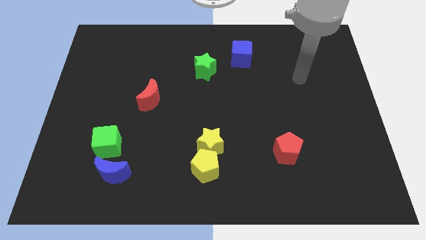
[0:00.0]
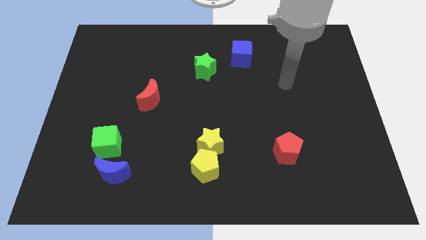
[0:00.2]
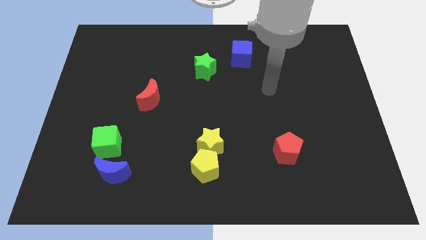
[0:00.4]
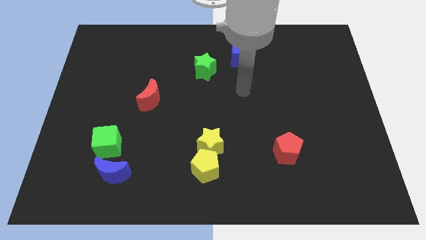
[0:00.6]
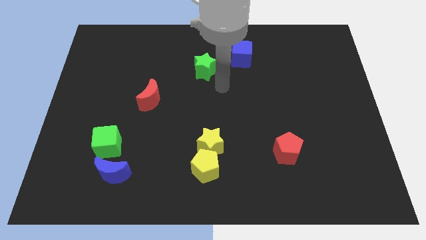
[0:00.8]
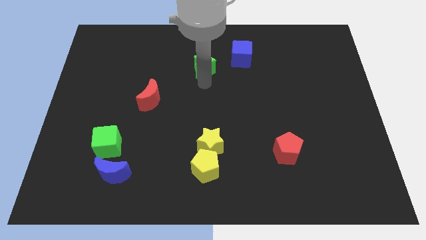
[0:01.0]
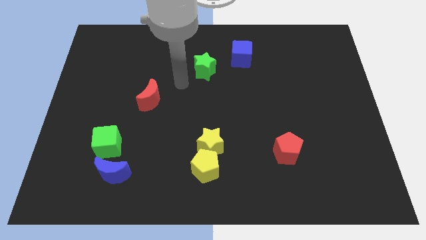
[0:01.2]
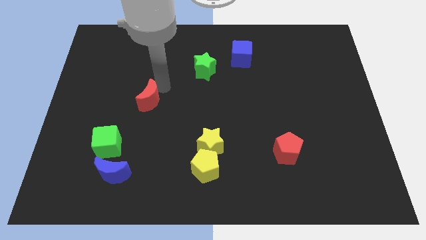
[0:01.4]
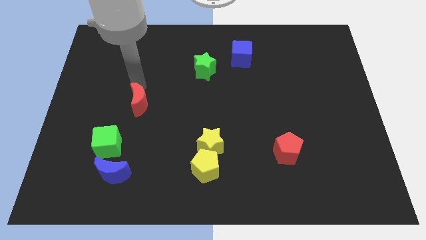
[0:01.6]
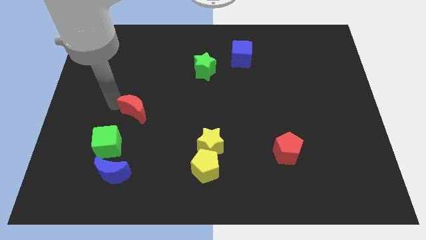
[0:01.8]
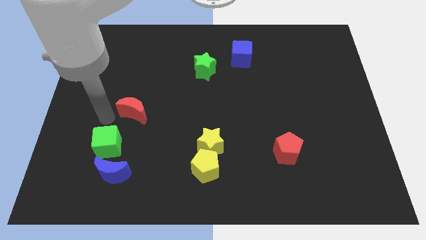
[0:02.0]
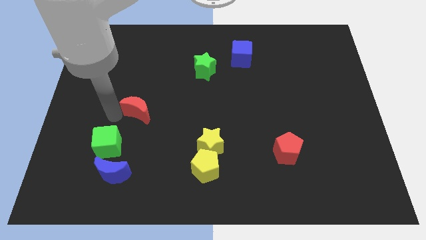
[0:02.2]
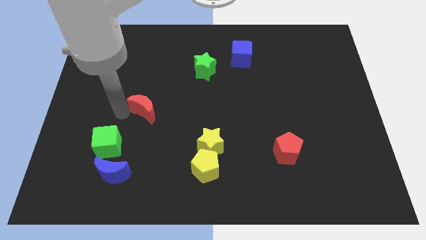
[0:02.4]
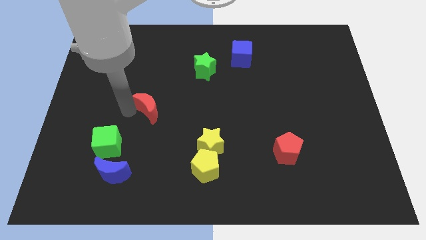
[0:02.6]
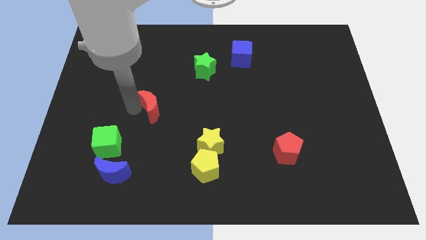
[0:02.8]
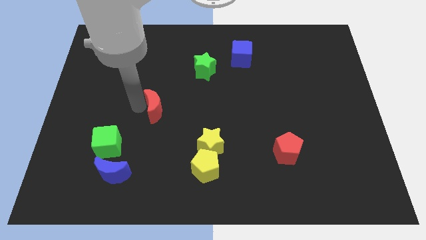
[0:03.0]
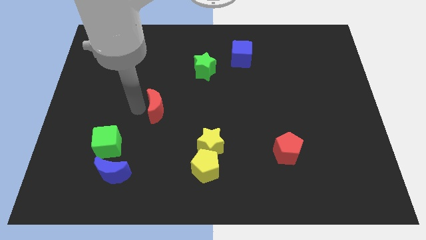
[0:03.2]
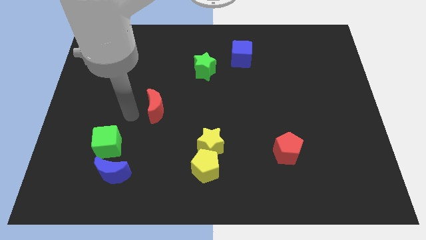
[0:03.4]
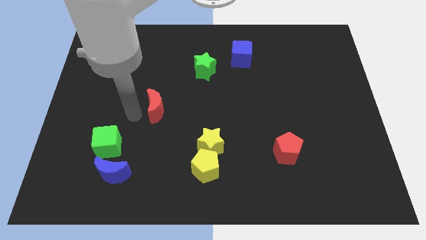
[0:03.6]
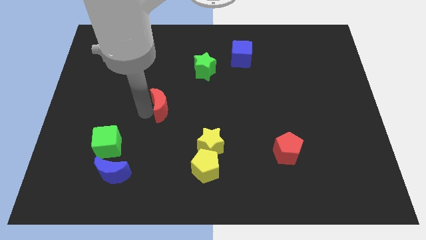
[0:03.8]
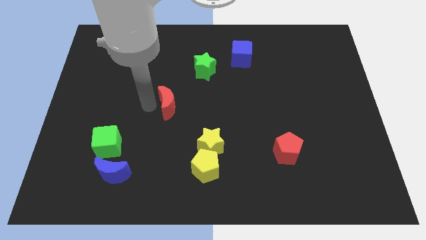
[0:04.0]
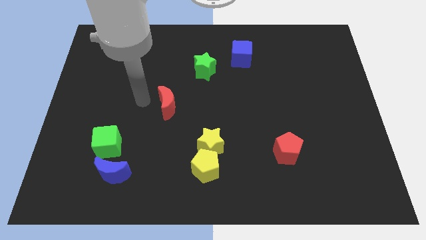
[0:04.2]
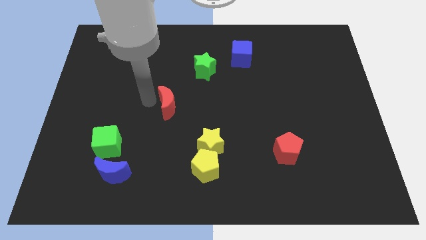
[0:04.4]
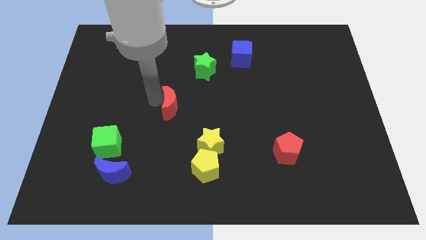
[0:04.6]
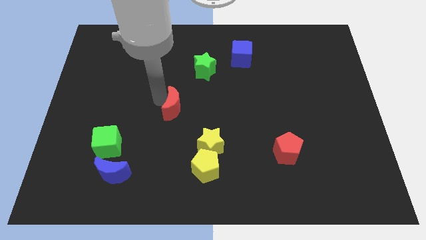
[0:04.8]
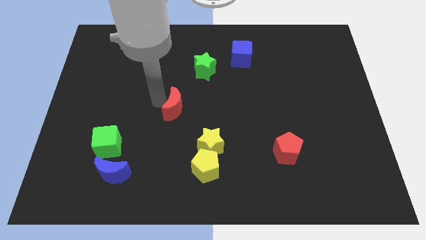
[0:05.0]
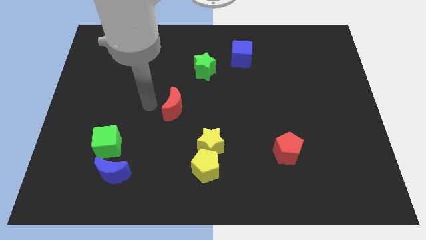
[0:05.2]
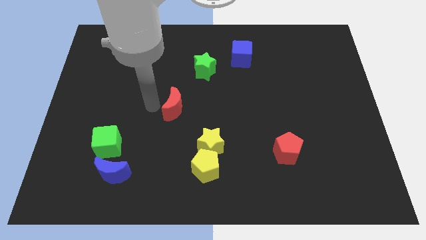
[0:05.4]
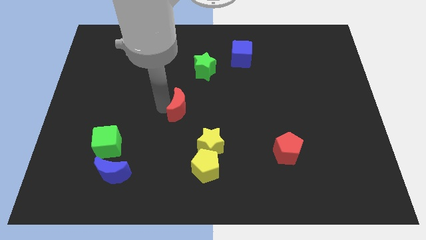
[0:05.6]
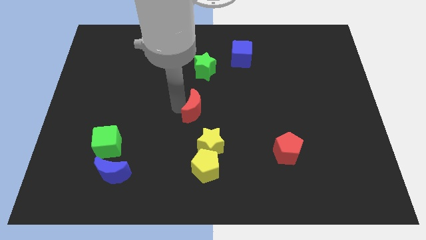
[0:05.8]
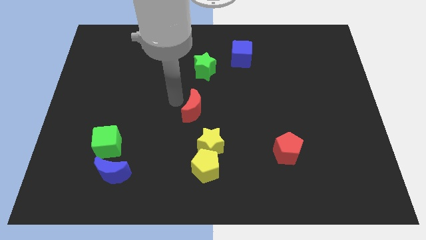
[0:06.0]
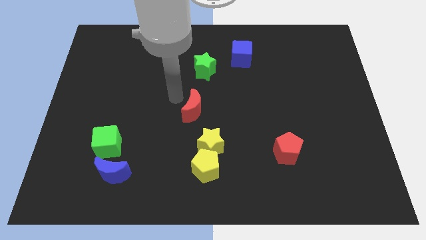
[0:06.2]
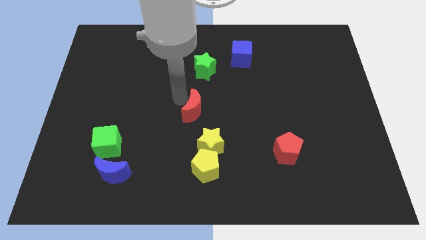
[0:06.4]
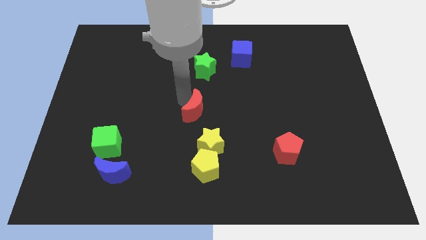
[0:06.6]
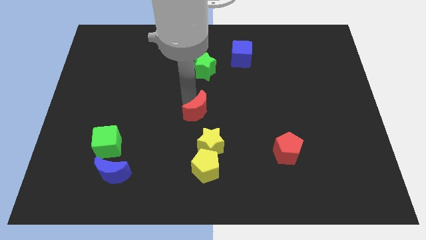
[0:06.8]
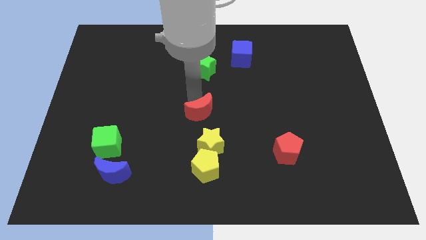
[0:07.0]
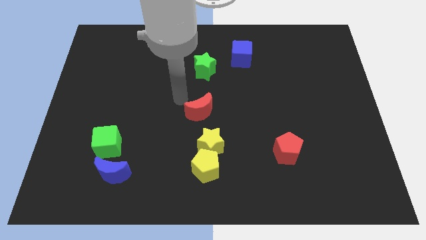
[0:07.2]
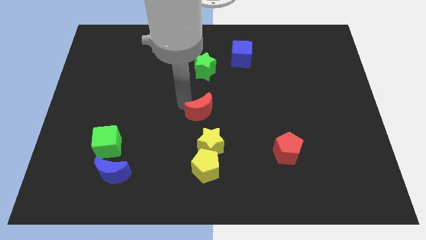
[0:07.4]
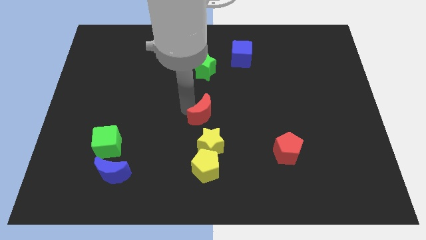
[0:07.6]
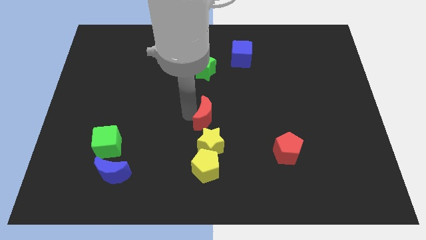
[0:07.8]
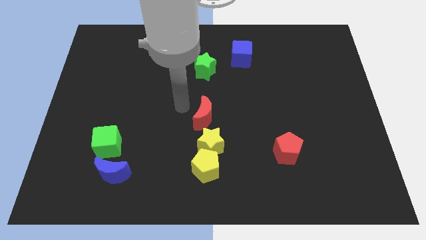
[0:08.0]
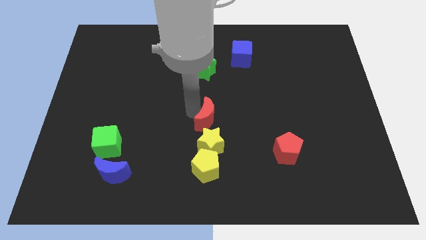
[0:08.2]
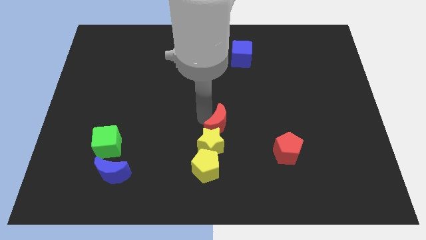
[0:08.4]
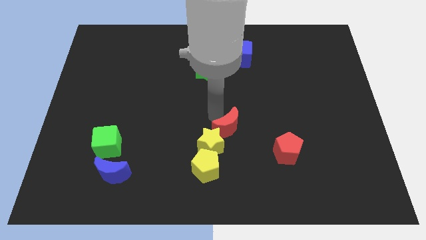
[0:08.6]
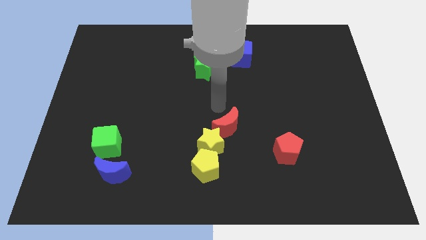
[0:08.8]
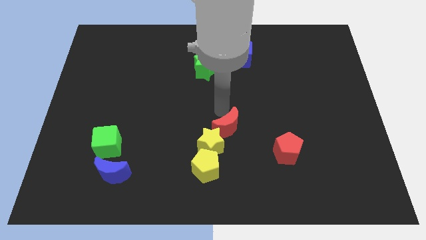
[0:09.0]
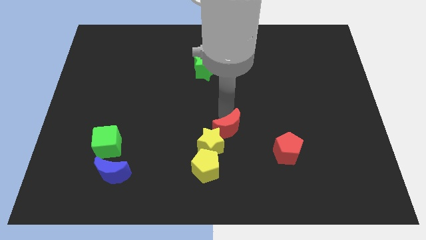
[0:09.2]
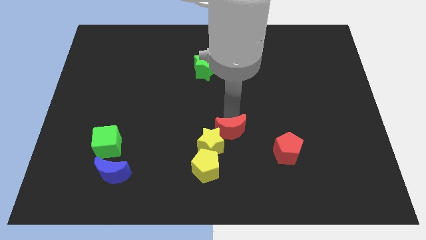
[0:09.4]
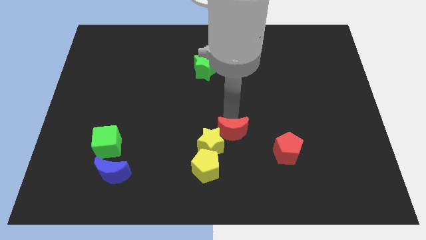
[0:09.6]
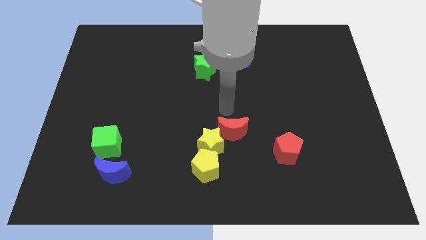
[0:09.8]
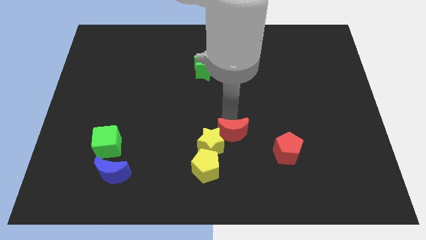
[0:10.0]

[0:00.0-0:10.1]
move the red moon to the left side of the red pentagon

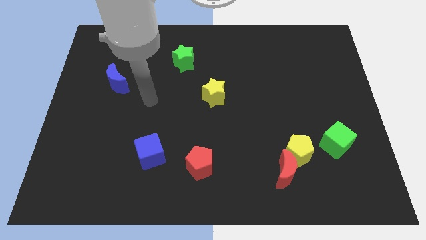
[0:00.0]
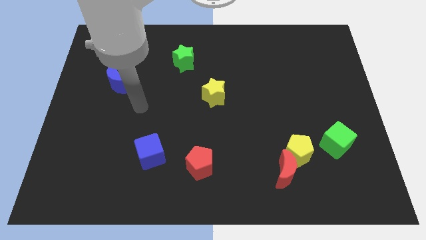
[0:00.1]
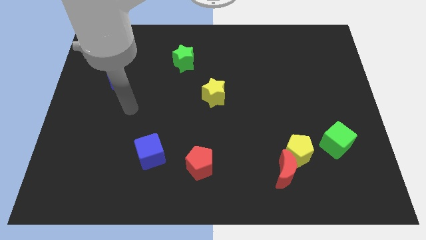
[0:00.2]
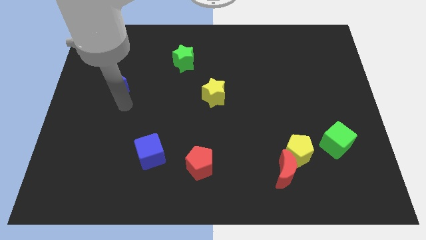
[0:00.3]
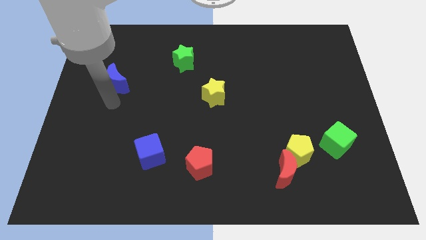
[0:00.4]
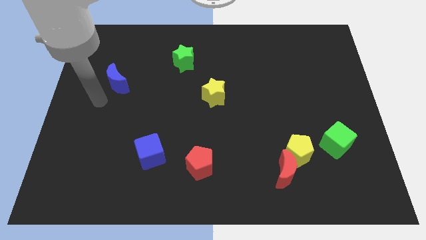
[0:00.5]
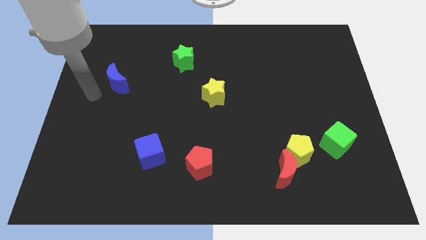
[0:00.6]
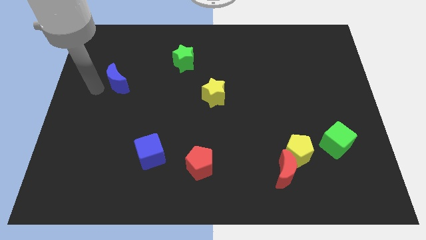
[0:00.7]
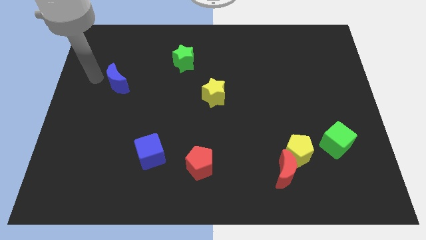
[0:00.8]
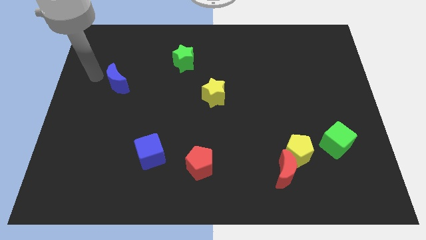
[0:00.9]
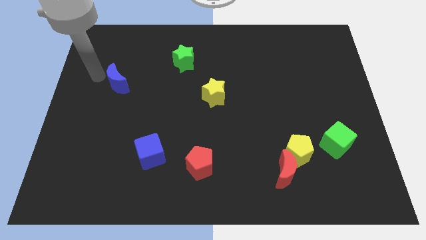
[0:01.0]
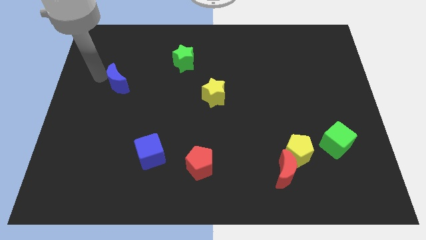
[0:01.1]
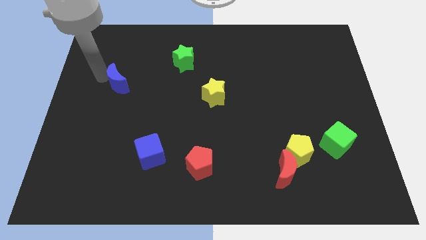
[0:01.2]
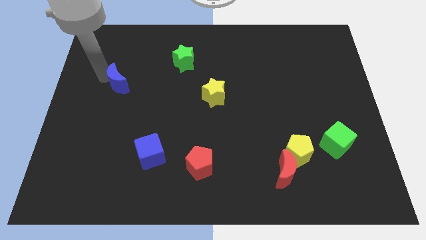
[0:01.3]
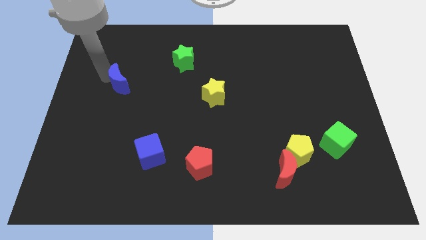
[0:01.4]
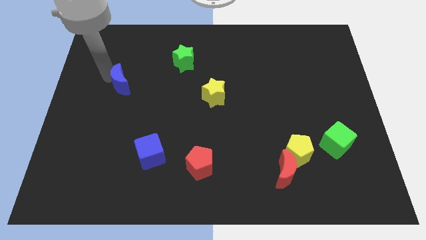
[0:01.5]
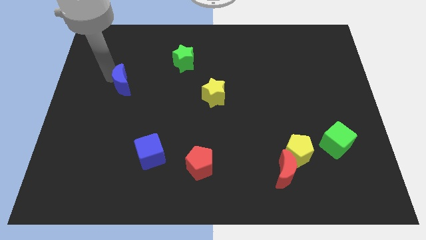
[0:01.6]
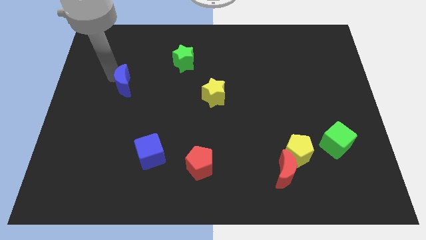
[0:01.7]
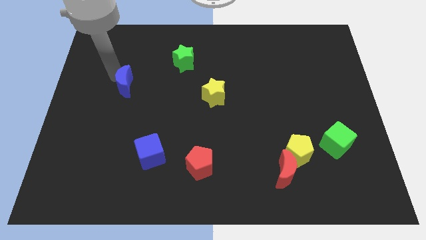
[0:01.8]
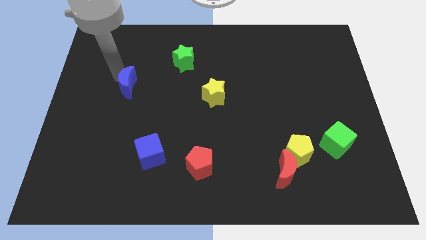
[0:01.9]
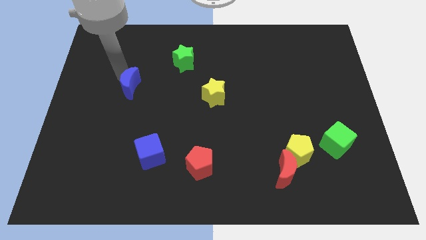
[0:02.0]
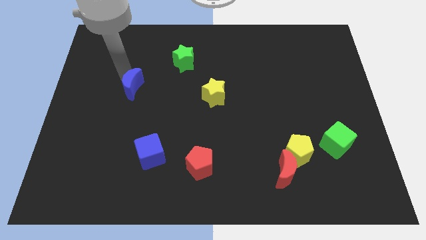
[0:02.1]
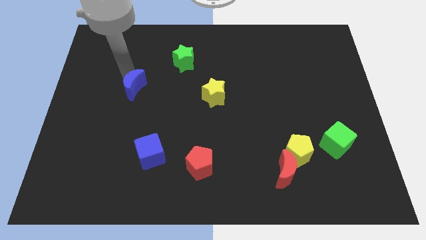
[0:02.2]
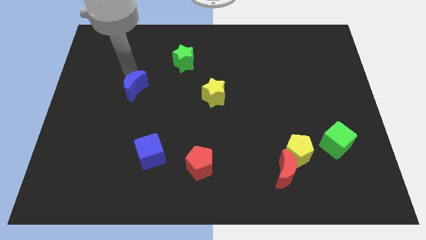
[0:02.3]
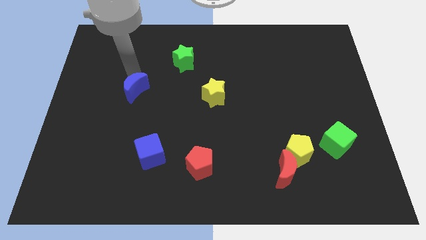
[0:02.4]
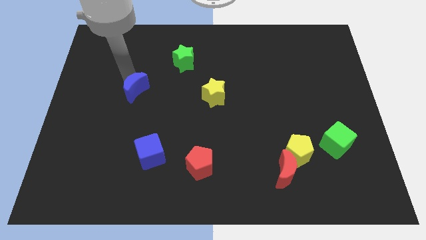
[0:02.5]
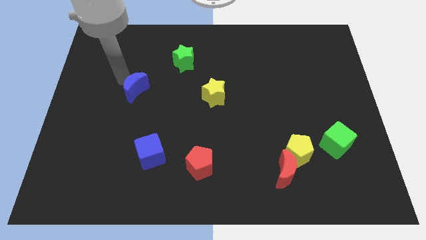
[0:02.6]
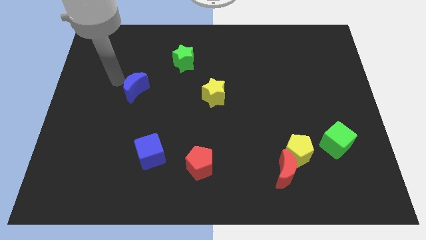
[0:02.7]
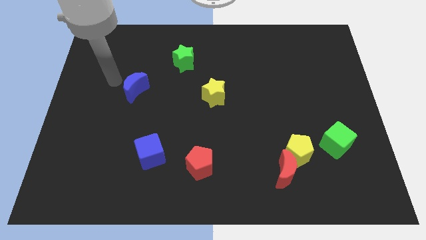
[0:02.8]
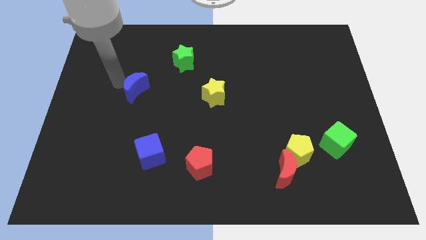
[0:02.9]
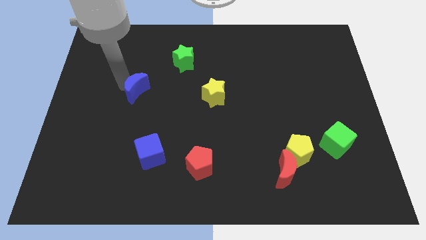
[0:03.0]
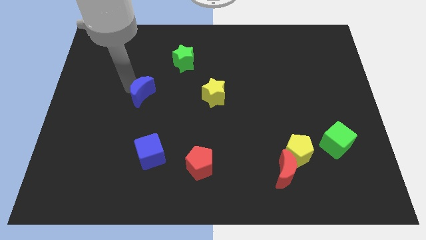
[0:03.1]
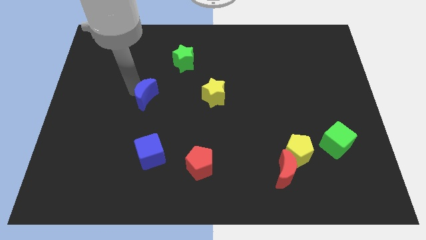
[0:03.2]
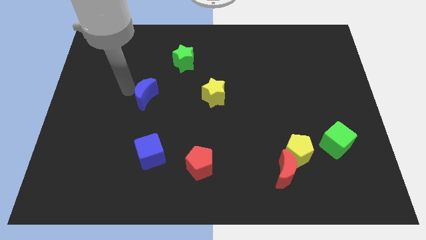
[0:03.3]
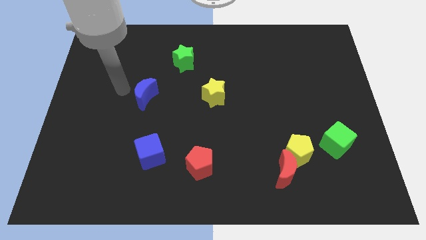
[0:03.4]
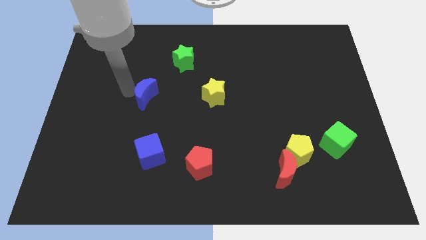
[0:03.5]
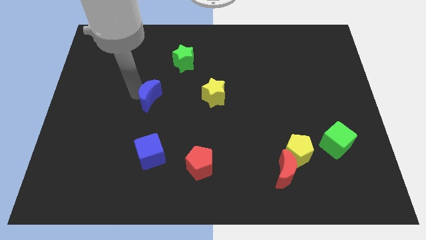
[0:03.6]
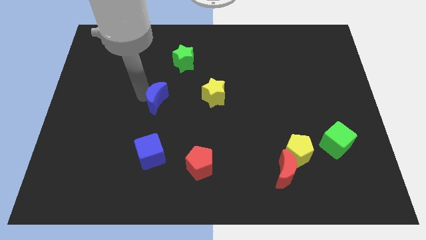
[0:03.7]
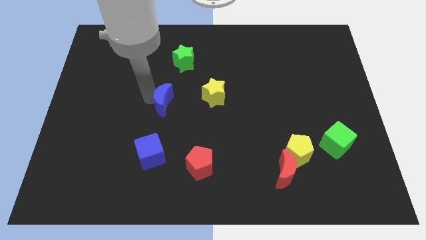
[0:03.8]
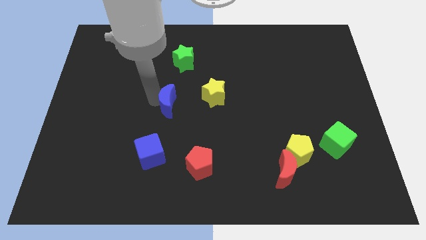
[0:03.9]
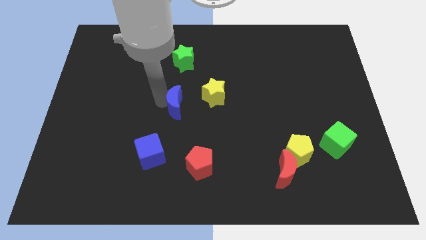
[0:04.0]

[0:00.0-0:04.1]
put the blue moon to the bottom left side of the yellow star
